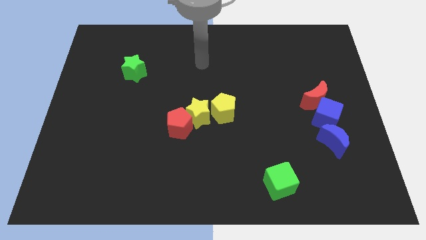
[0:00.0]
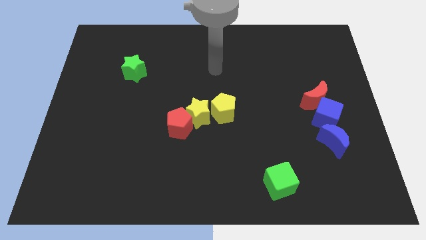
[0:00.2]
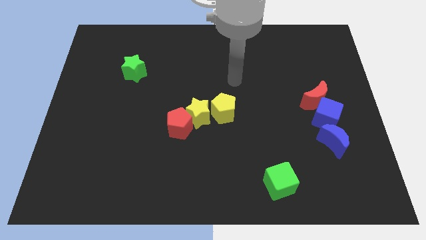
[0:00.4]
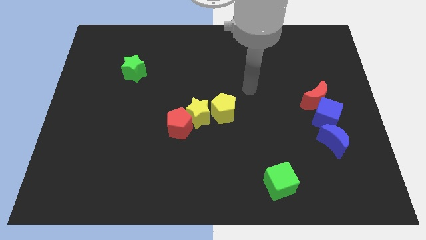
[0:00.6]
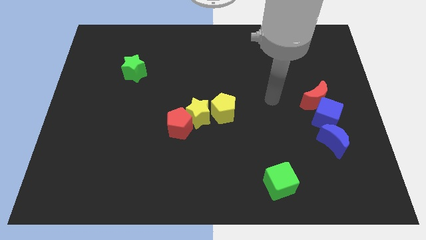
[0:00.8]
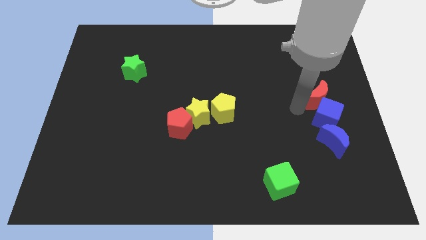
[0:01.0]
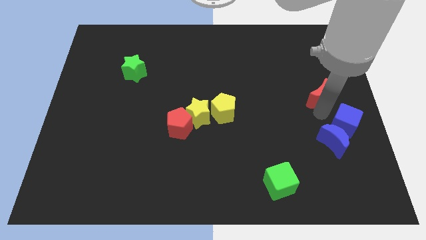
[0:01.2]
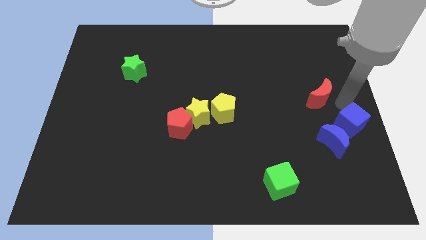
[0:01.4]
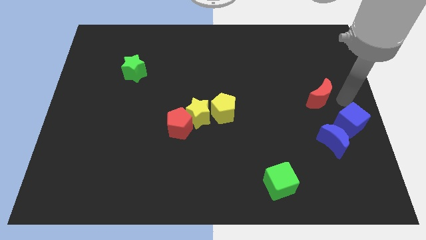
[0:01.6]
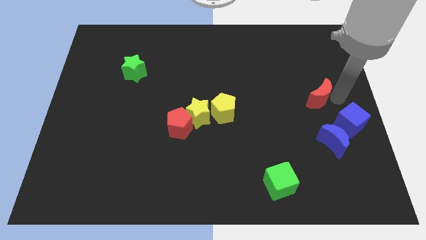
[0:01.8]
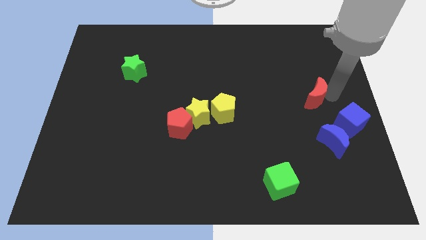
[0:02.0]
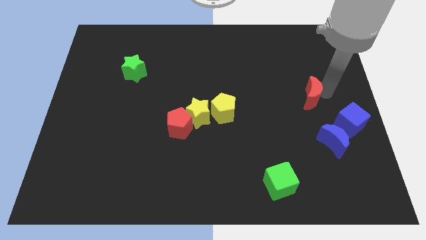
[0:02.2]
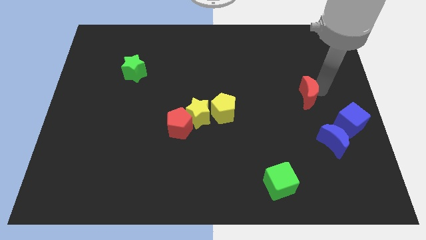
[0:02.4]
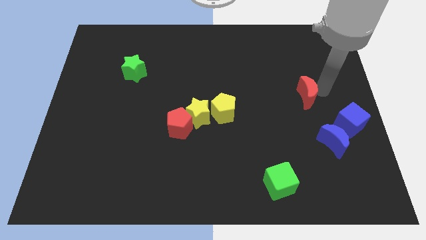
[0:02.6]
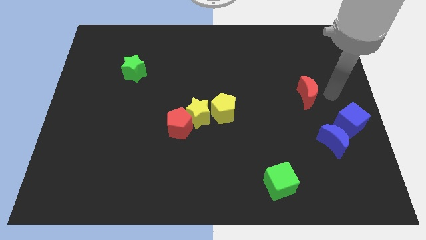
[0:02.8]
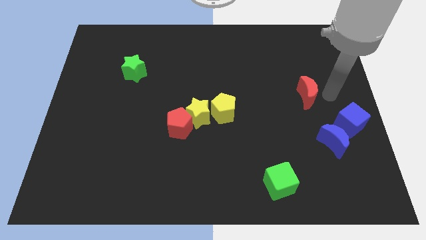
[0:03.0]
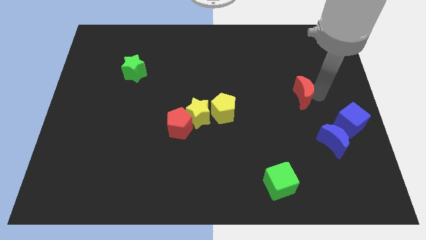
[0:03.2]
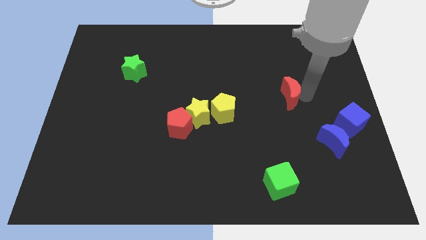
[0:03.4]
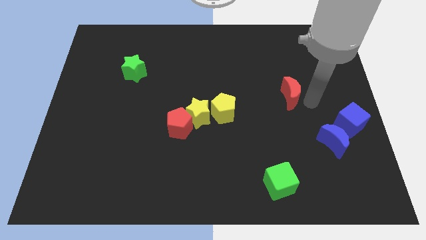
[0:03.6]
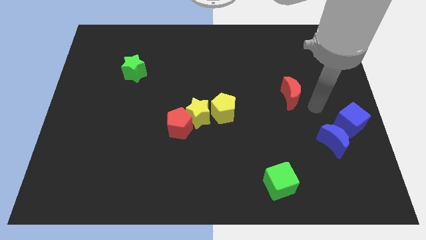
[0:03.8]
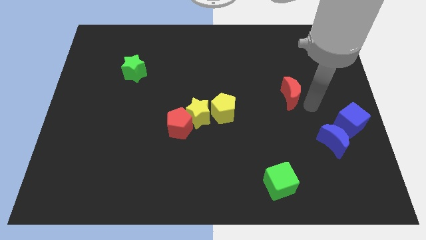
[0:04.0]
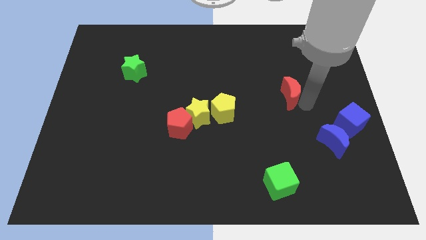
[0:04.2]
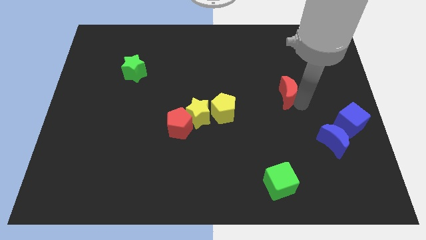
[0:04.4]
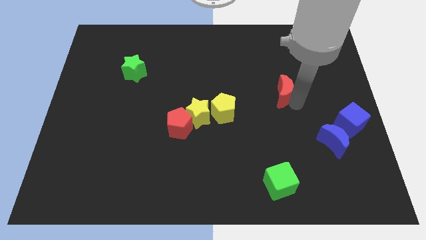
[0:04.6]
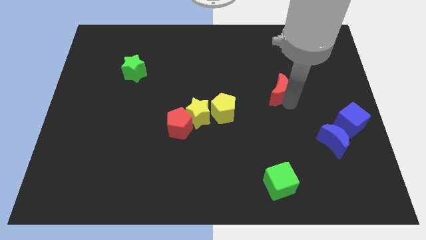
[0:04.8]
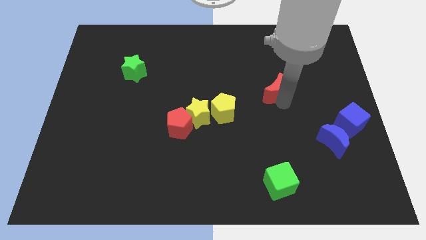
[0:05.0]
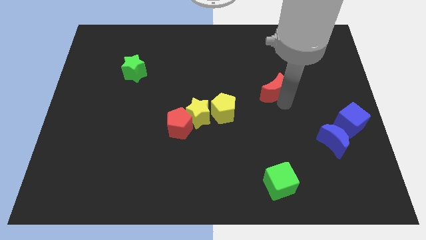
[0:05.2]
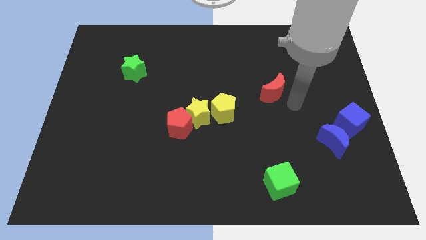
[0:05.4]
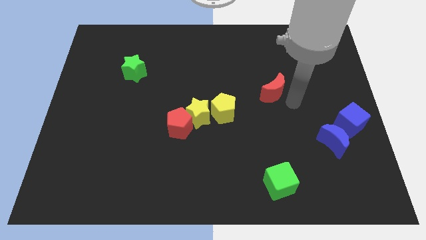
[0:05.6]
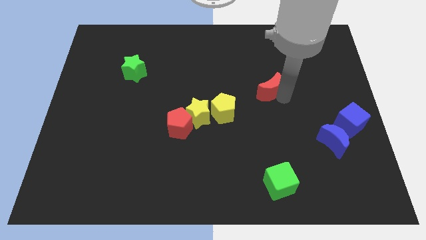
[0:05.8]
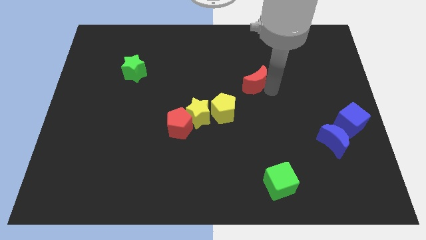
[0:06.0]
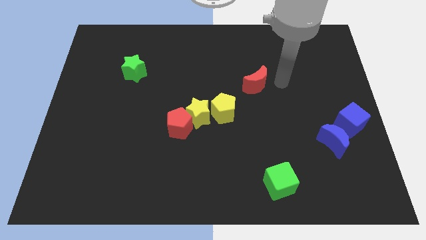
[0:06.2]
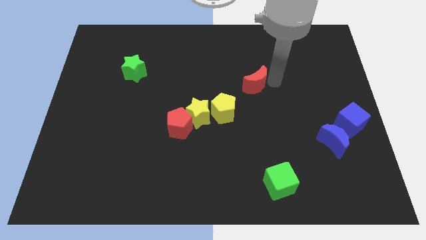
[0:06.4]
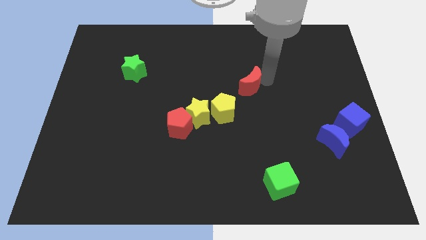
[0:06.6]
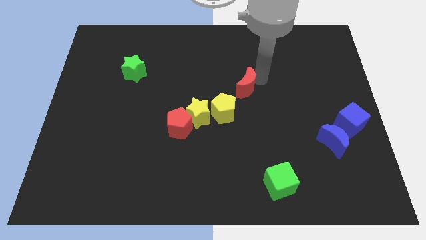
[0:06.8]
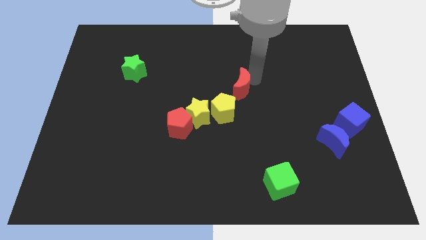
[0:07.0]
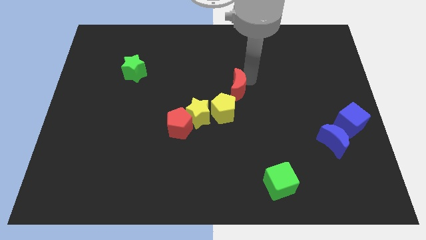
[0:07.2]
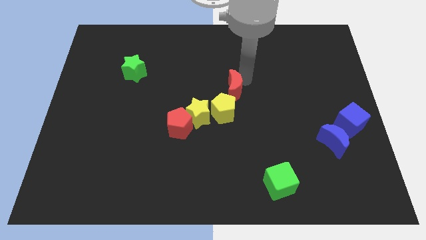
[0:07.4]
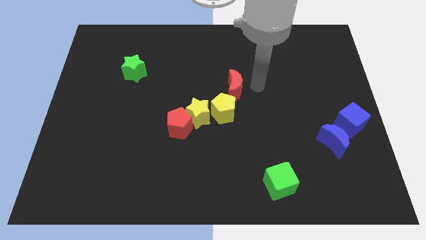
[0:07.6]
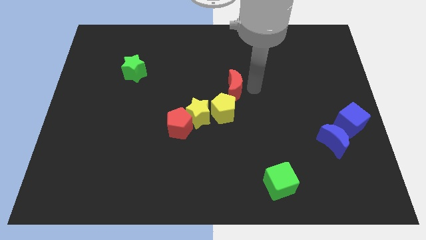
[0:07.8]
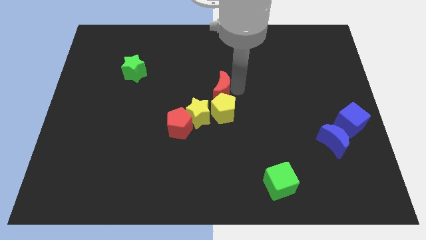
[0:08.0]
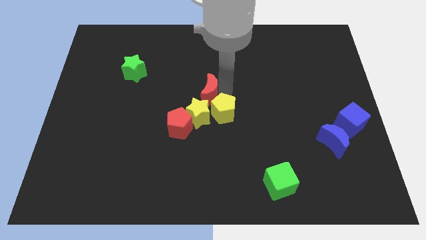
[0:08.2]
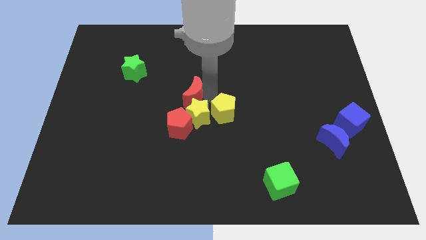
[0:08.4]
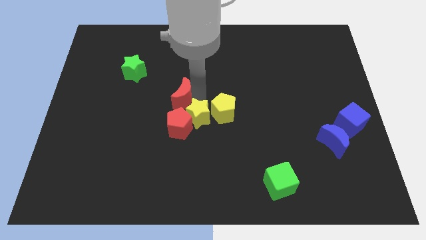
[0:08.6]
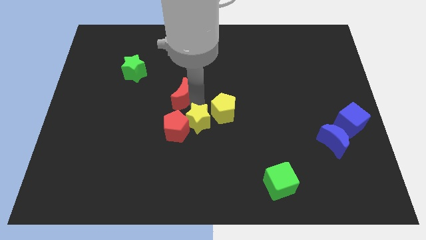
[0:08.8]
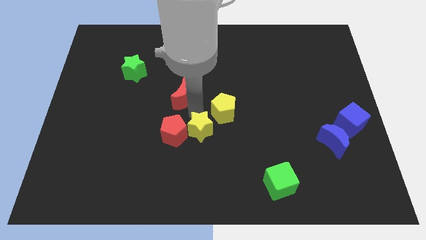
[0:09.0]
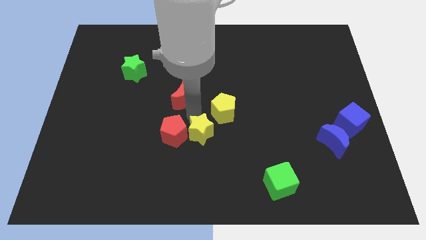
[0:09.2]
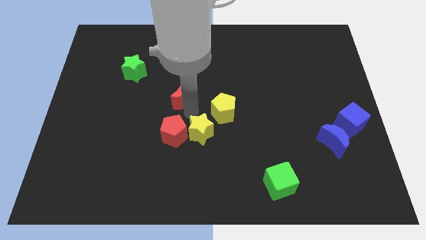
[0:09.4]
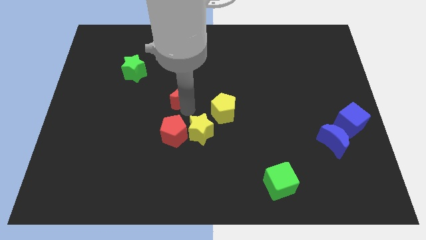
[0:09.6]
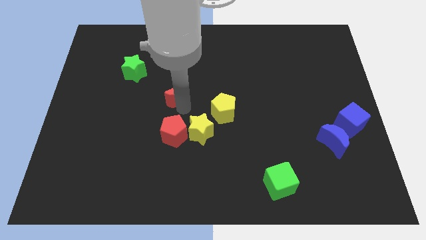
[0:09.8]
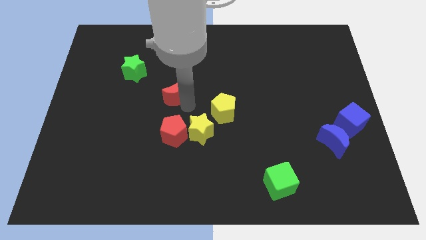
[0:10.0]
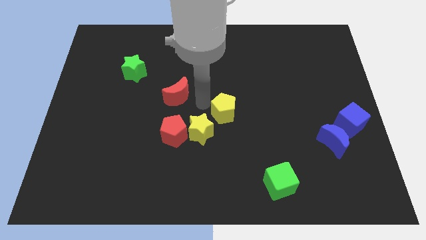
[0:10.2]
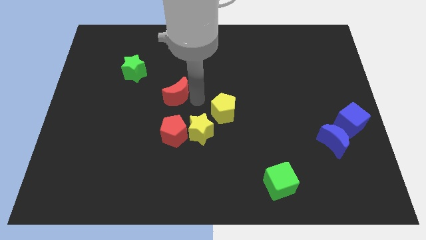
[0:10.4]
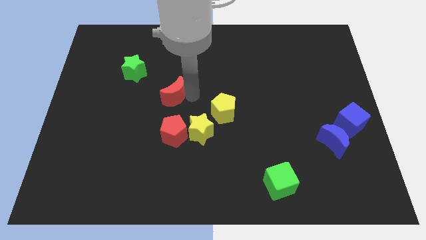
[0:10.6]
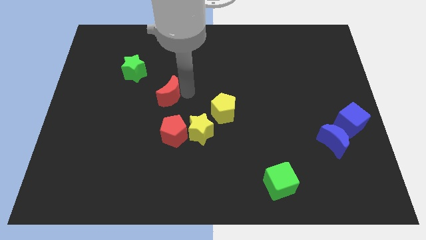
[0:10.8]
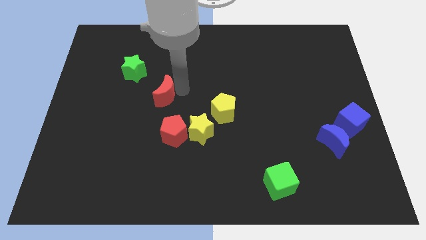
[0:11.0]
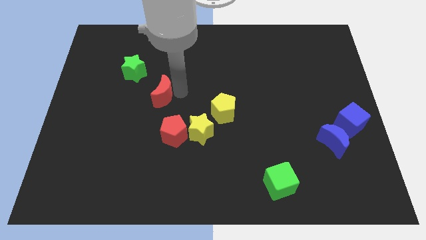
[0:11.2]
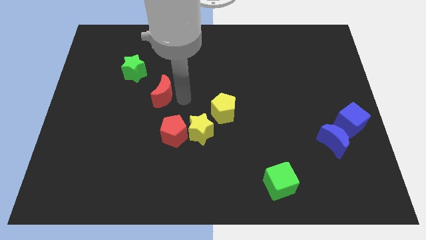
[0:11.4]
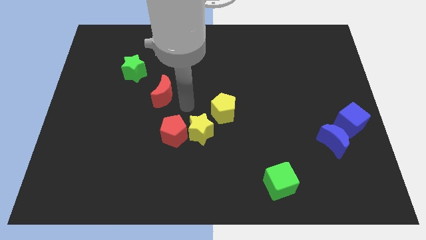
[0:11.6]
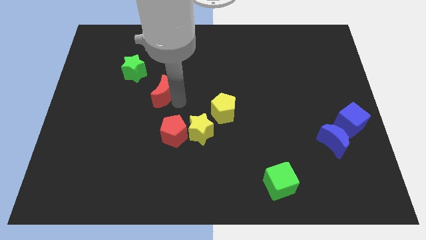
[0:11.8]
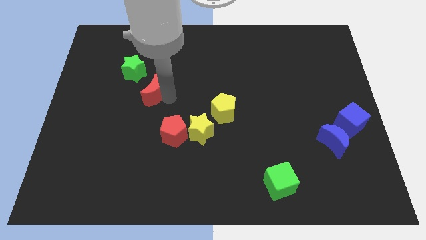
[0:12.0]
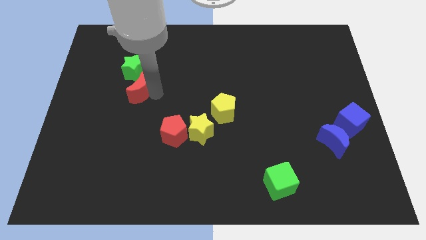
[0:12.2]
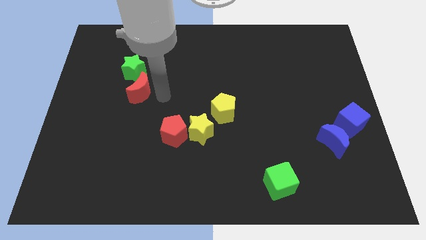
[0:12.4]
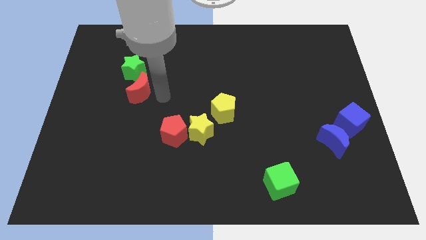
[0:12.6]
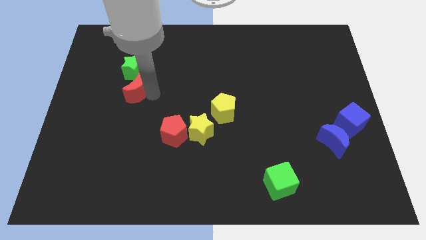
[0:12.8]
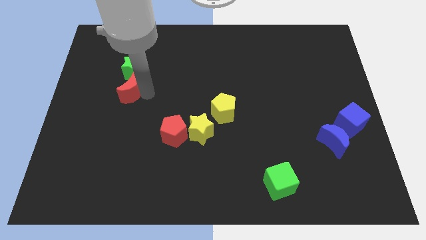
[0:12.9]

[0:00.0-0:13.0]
put the red moon to the bottom left of the green star
